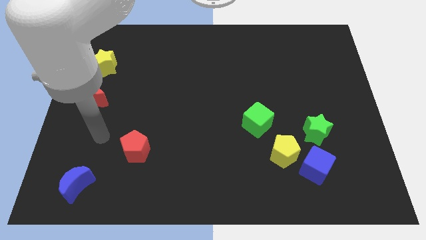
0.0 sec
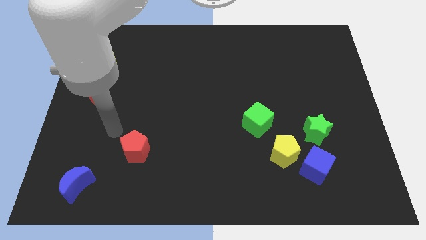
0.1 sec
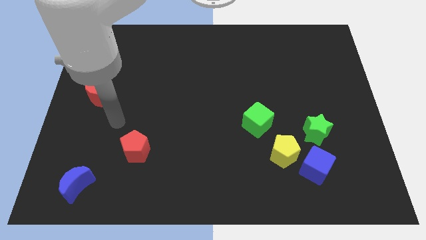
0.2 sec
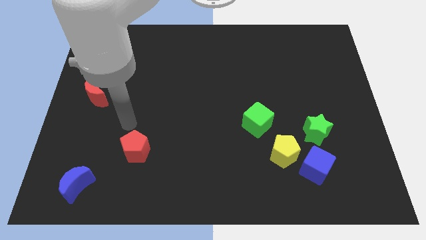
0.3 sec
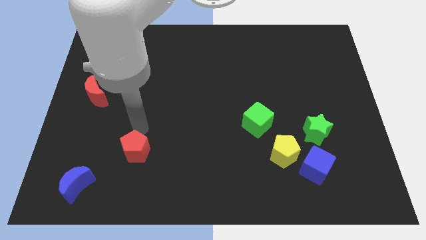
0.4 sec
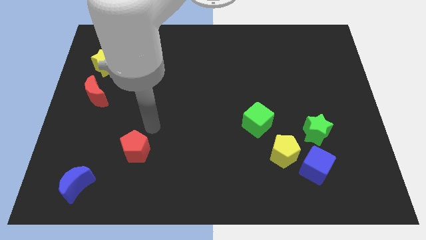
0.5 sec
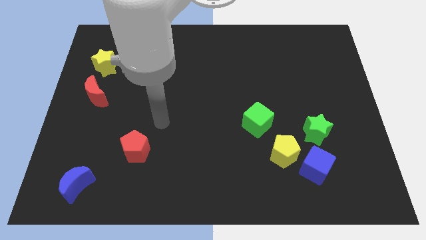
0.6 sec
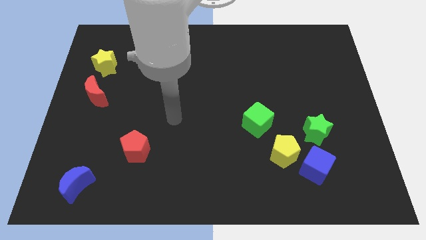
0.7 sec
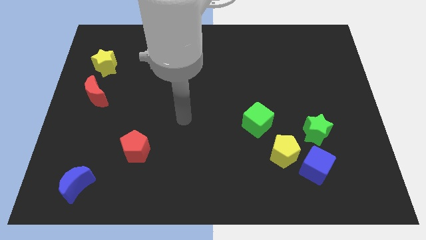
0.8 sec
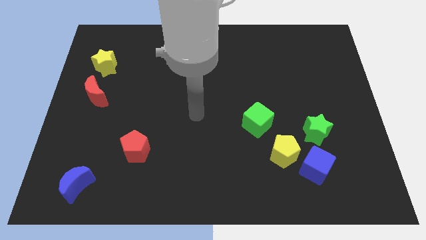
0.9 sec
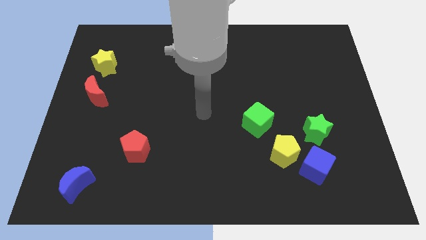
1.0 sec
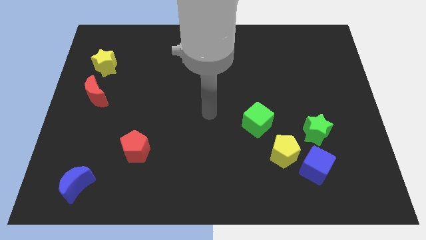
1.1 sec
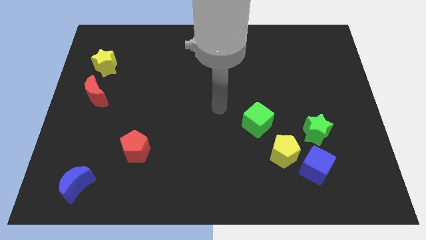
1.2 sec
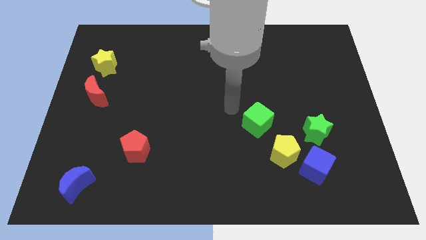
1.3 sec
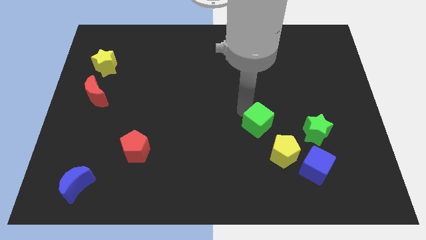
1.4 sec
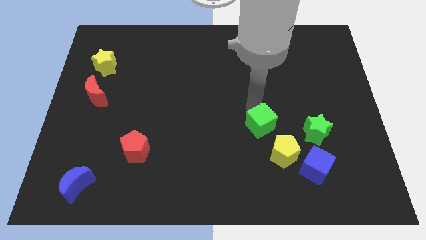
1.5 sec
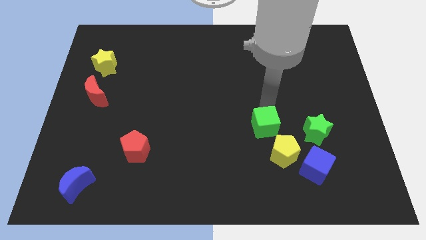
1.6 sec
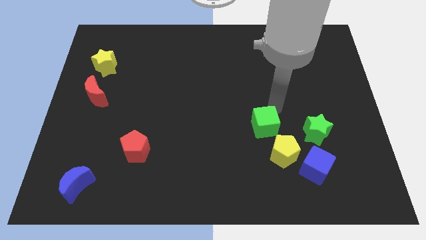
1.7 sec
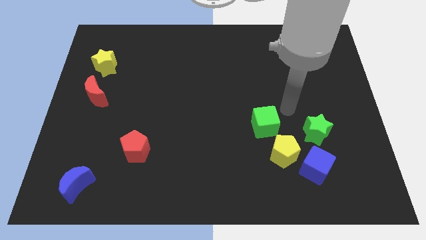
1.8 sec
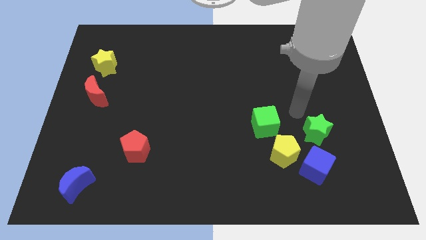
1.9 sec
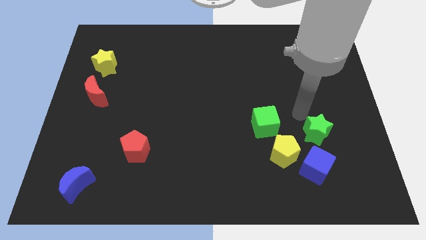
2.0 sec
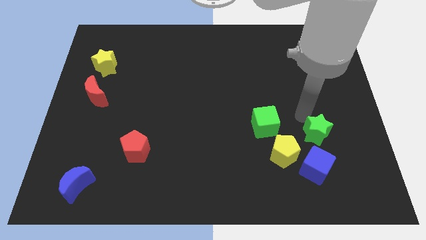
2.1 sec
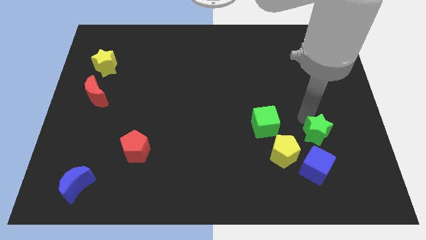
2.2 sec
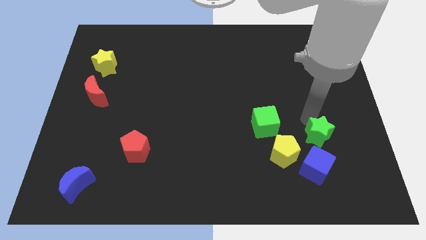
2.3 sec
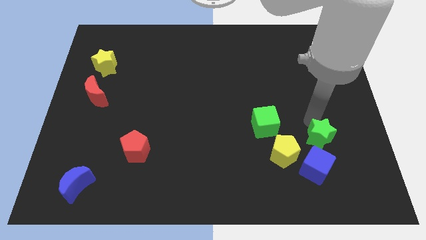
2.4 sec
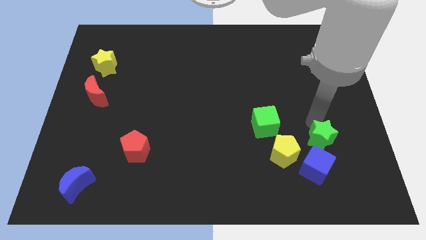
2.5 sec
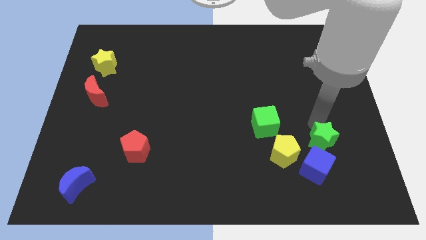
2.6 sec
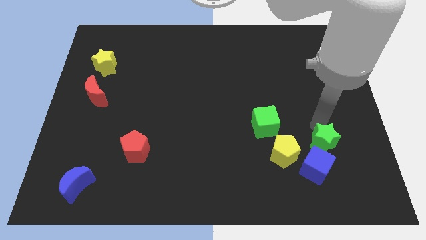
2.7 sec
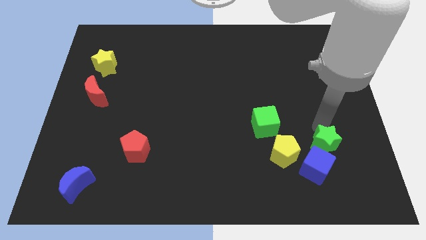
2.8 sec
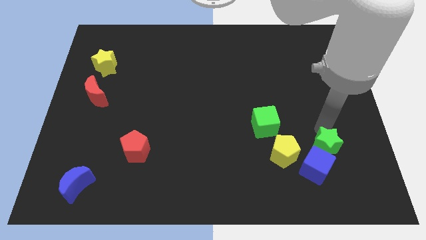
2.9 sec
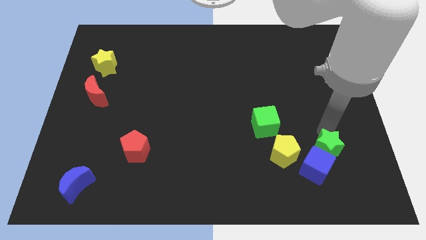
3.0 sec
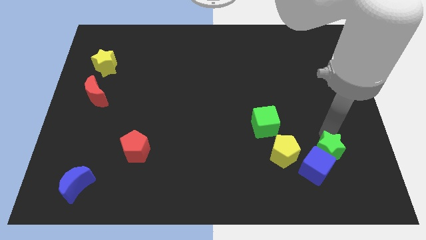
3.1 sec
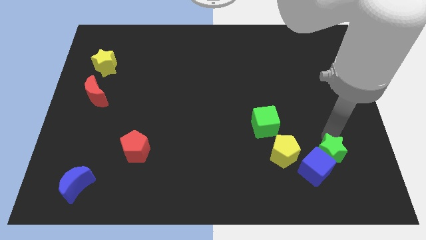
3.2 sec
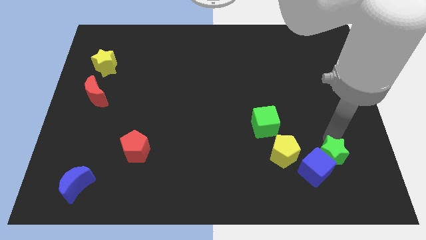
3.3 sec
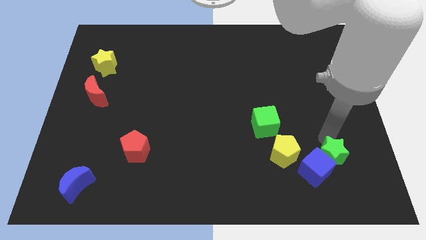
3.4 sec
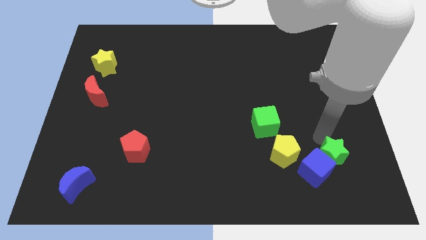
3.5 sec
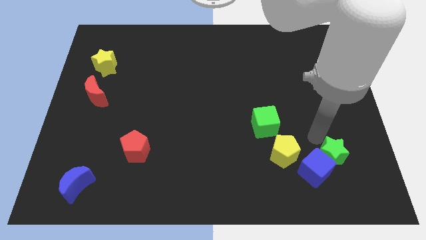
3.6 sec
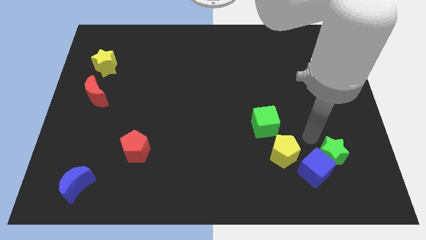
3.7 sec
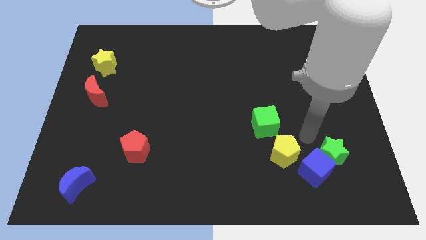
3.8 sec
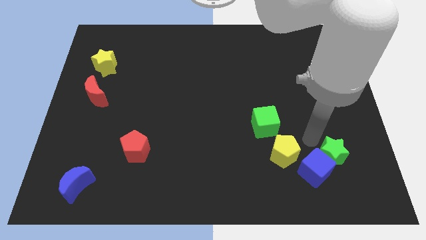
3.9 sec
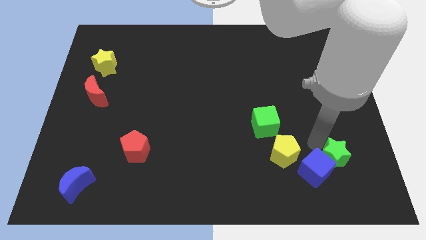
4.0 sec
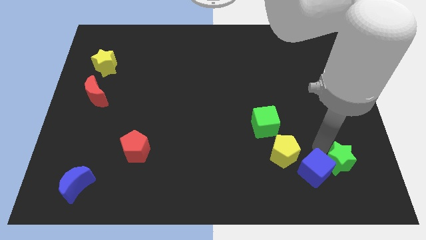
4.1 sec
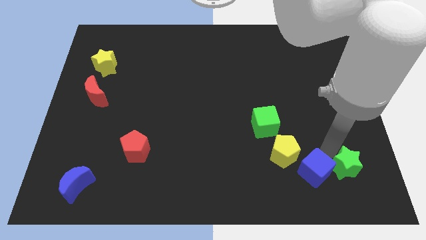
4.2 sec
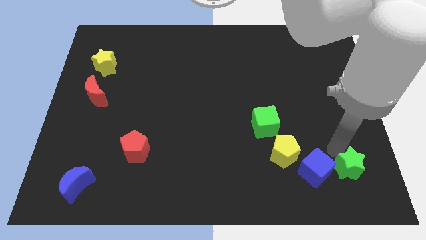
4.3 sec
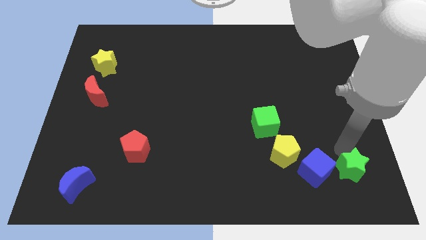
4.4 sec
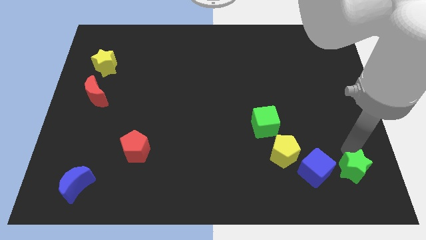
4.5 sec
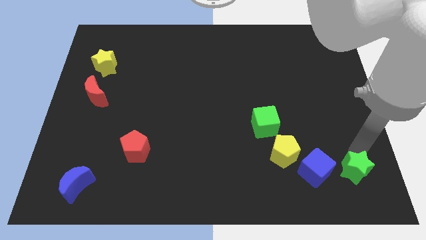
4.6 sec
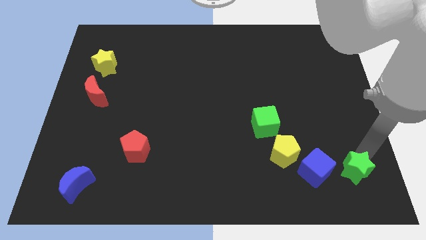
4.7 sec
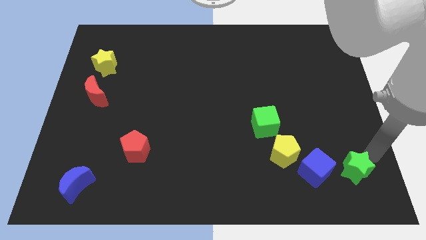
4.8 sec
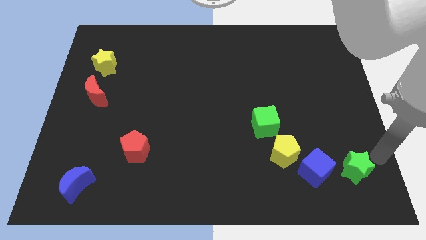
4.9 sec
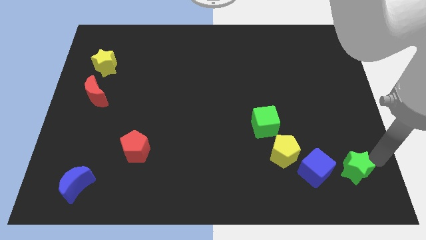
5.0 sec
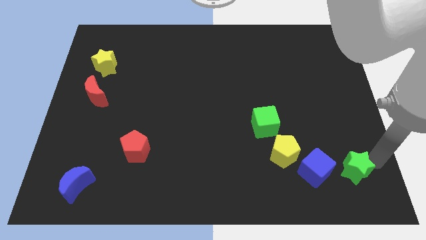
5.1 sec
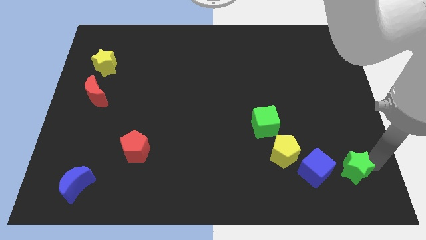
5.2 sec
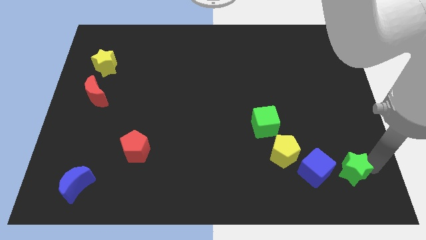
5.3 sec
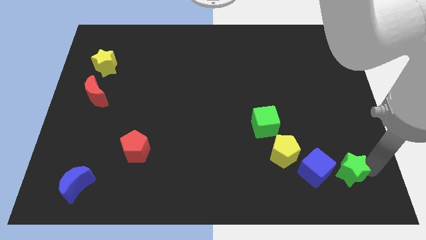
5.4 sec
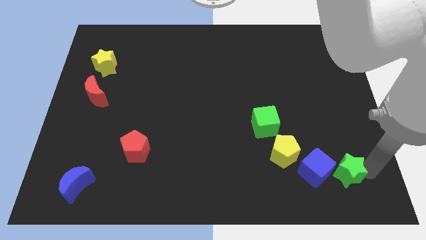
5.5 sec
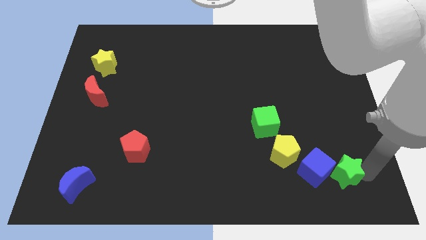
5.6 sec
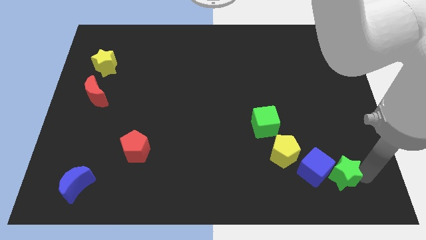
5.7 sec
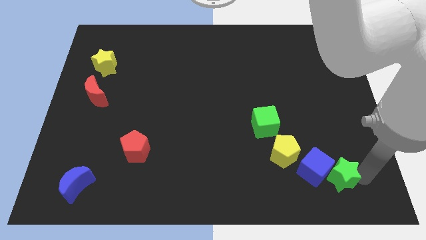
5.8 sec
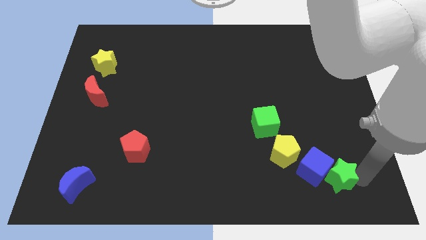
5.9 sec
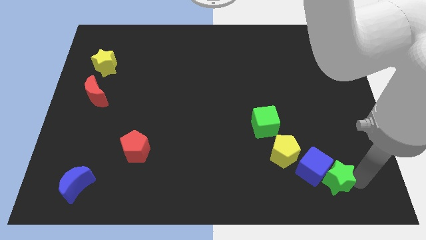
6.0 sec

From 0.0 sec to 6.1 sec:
slide the green star diagonally down and to the right of the yellow pentagon

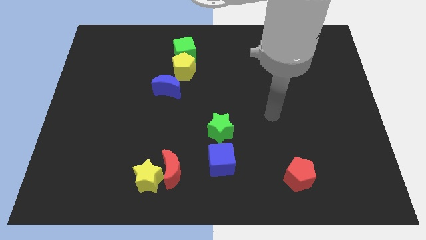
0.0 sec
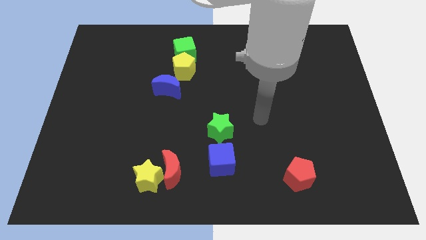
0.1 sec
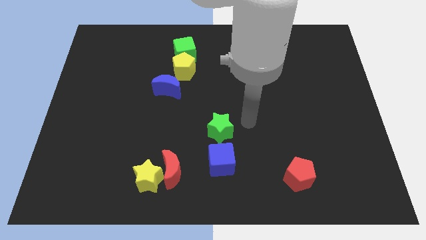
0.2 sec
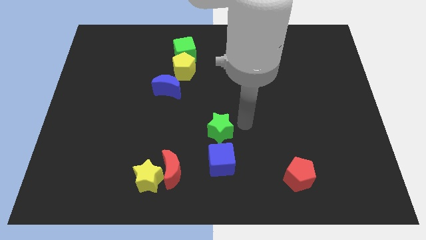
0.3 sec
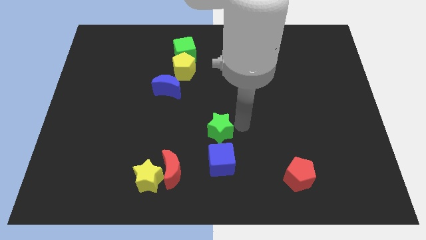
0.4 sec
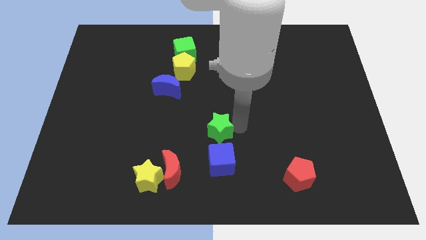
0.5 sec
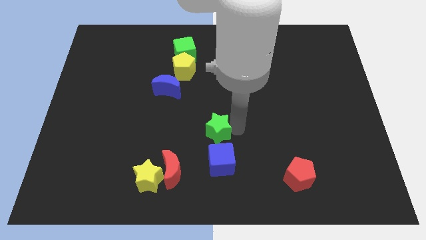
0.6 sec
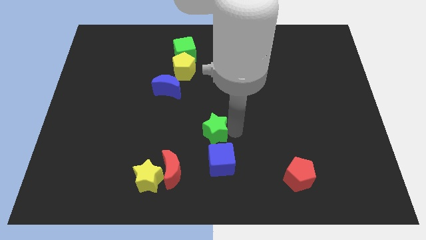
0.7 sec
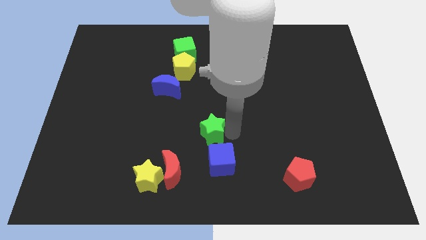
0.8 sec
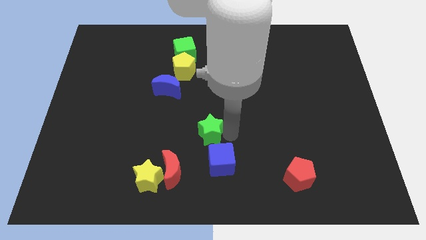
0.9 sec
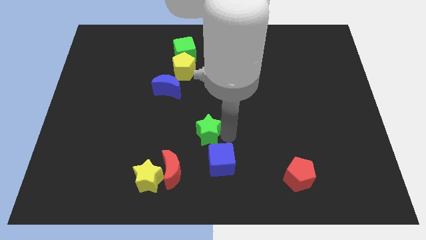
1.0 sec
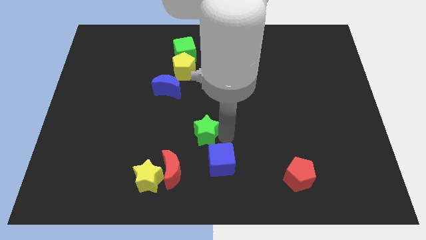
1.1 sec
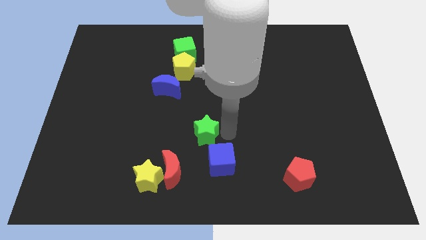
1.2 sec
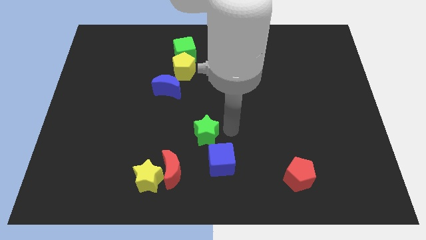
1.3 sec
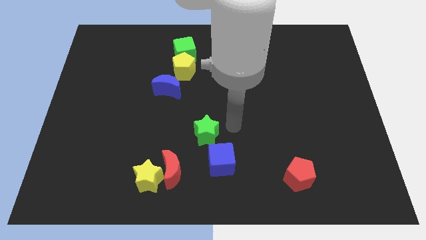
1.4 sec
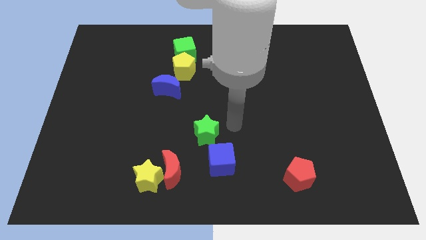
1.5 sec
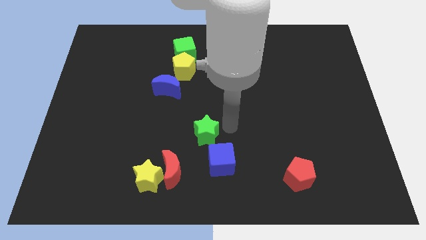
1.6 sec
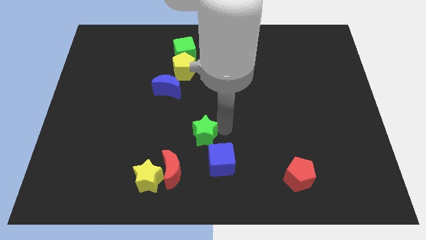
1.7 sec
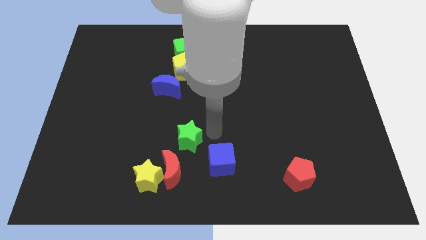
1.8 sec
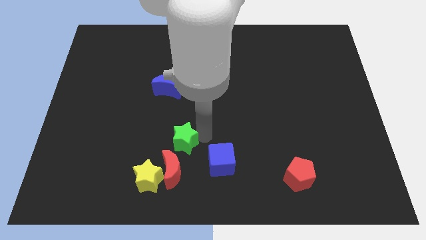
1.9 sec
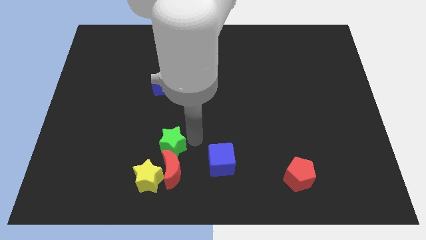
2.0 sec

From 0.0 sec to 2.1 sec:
slide the green star diagonally up and to the left of the red moon
